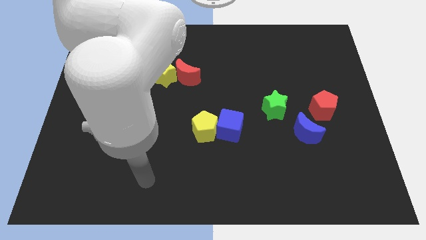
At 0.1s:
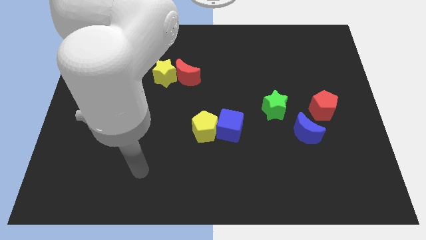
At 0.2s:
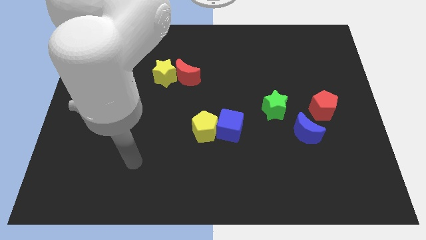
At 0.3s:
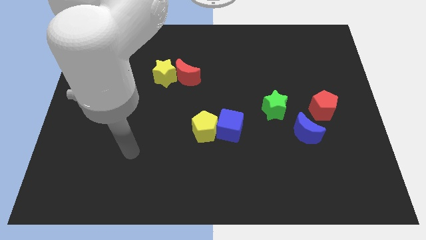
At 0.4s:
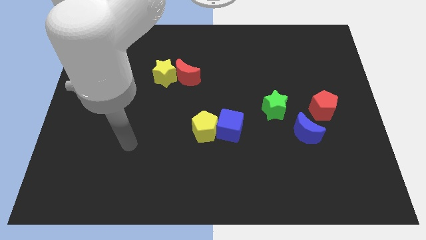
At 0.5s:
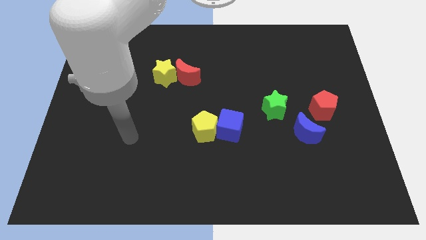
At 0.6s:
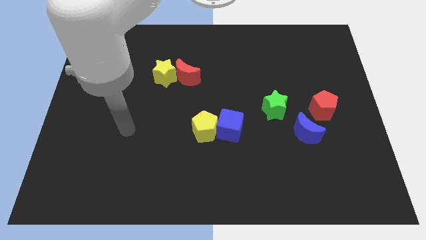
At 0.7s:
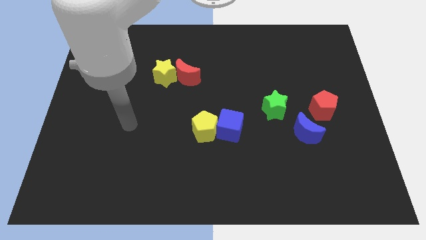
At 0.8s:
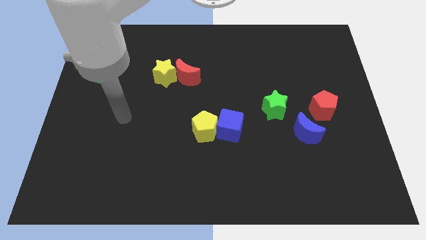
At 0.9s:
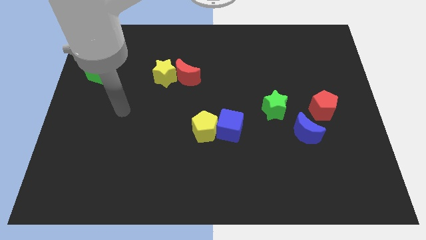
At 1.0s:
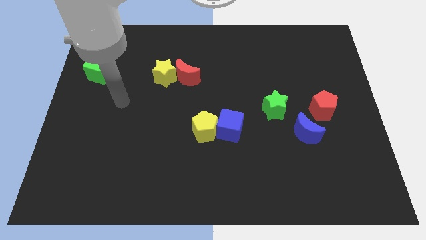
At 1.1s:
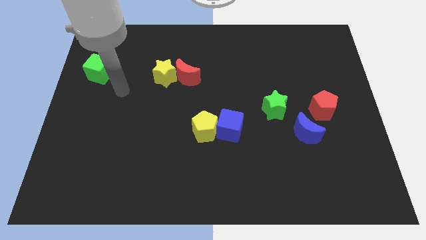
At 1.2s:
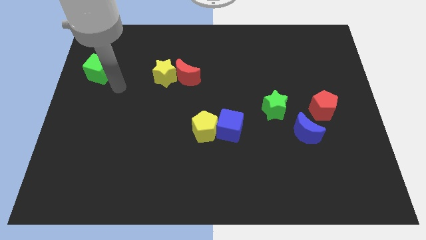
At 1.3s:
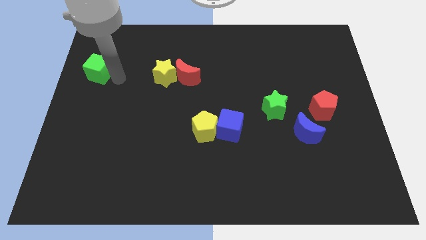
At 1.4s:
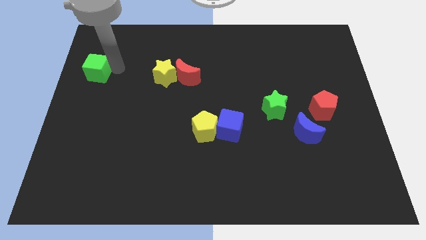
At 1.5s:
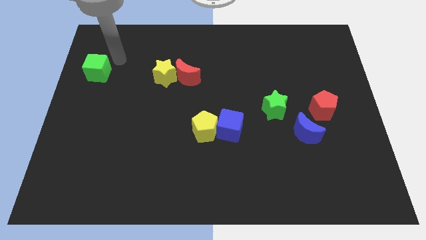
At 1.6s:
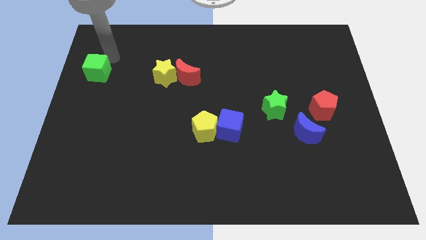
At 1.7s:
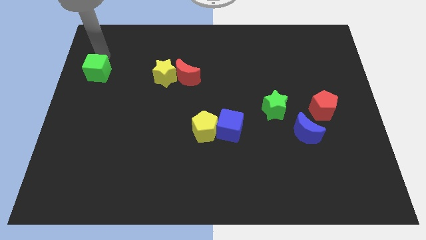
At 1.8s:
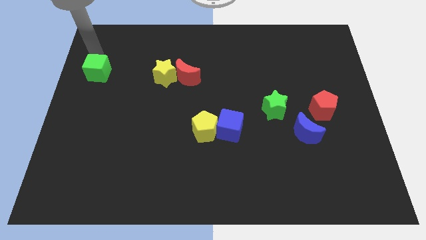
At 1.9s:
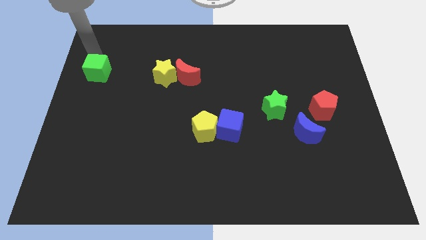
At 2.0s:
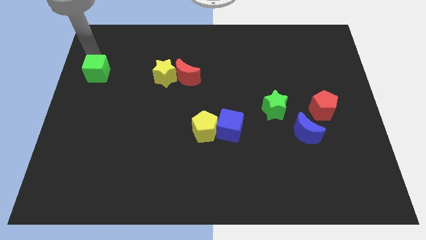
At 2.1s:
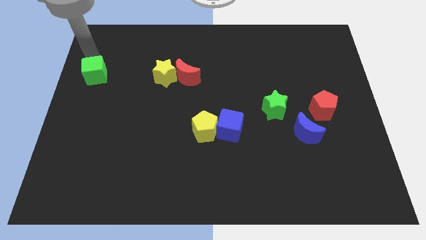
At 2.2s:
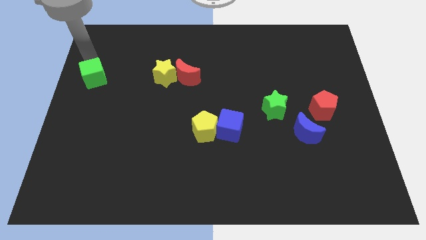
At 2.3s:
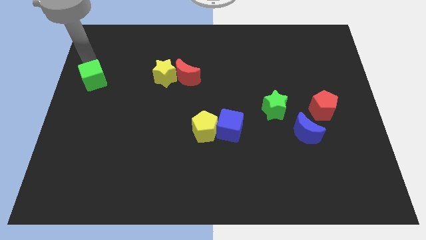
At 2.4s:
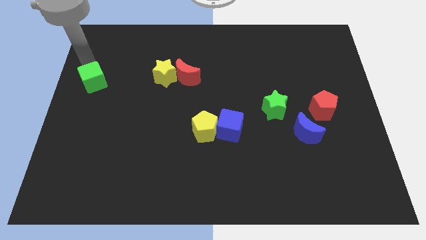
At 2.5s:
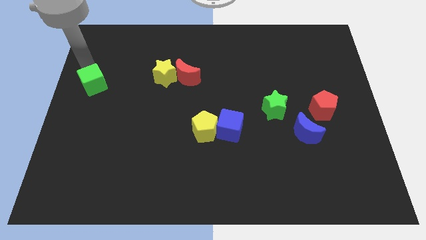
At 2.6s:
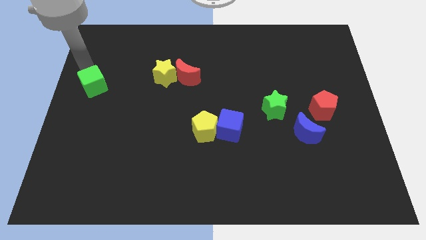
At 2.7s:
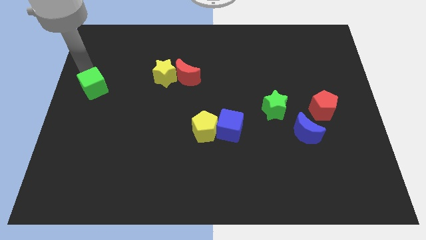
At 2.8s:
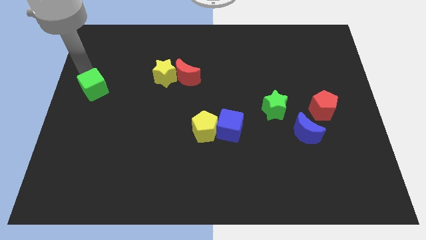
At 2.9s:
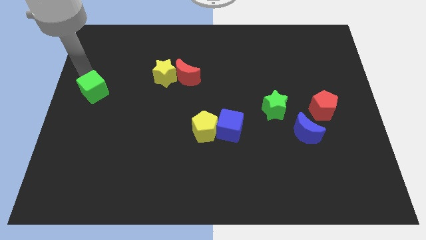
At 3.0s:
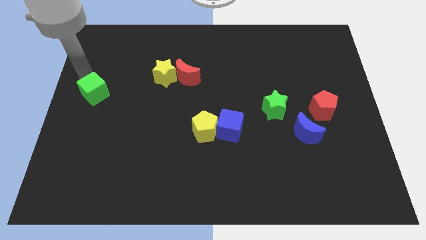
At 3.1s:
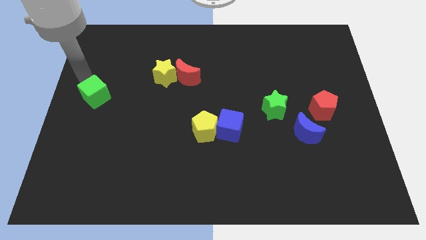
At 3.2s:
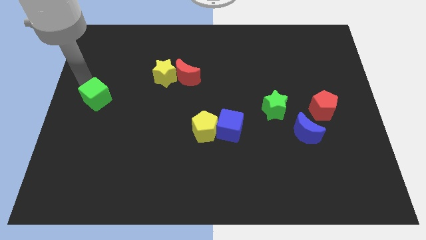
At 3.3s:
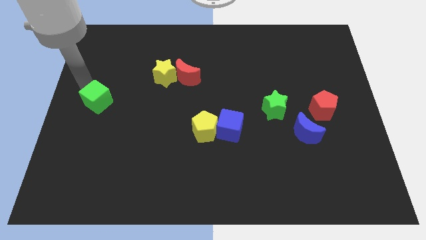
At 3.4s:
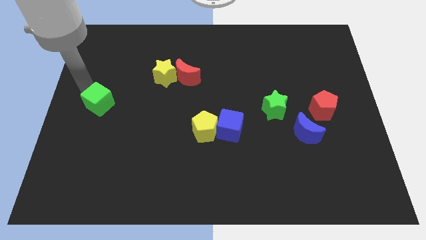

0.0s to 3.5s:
slightly move the green cube downwards and to the right

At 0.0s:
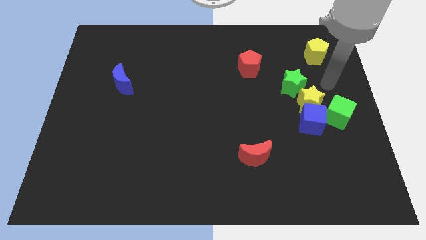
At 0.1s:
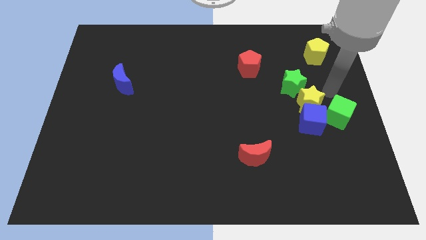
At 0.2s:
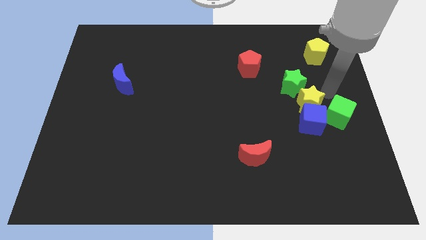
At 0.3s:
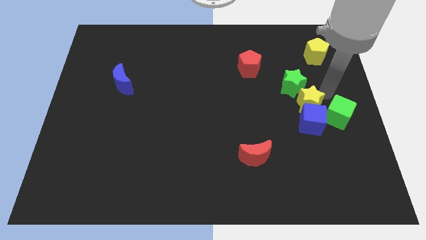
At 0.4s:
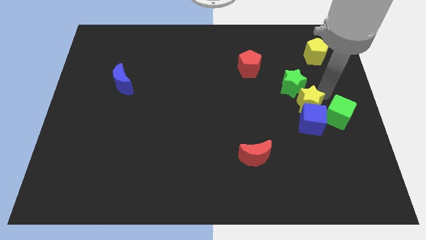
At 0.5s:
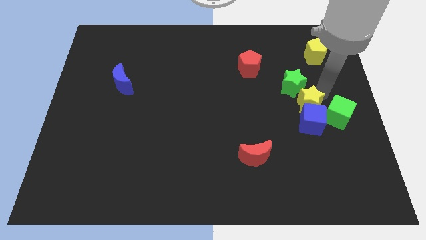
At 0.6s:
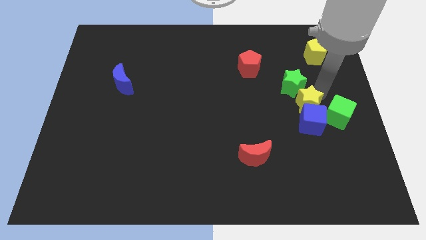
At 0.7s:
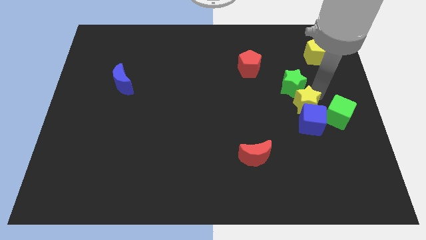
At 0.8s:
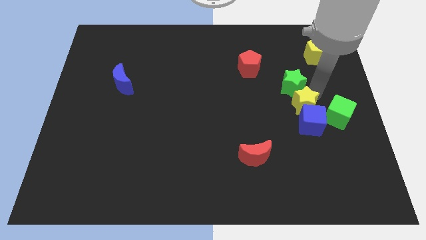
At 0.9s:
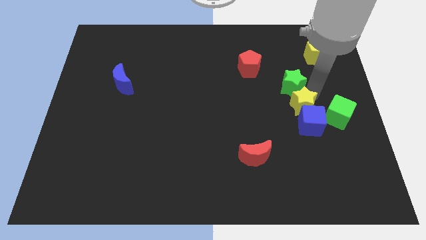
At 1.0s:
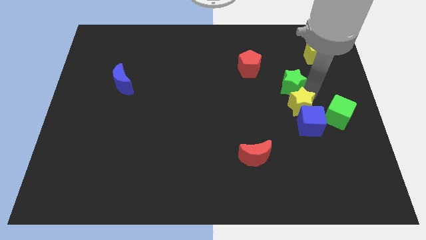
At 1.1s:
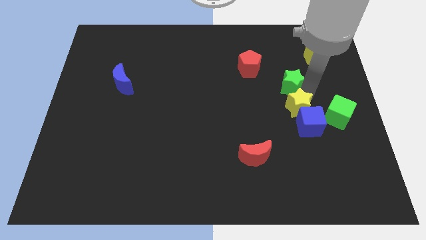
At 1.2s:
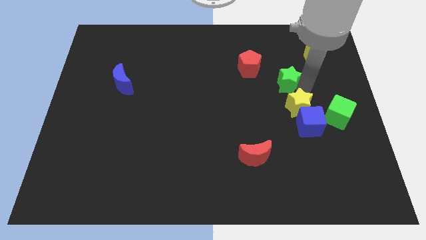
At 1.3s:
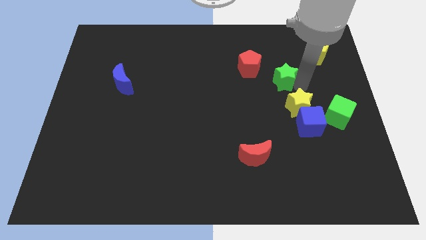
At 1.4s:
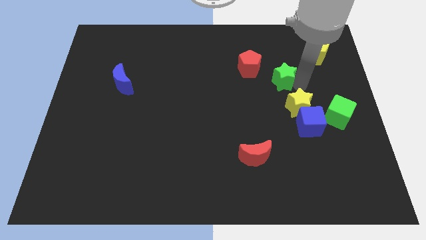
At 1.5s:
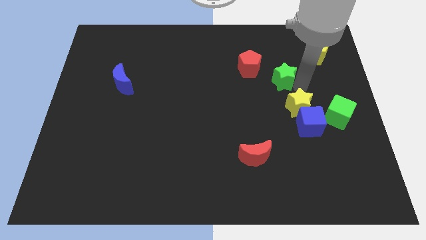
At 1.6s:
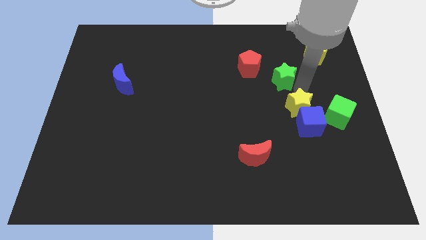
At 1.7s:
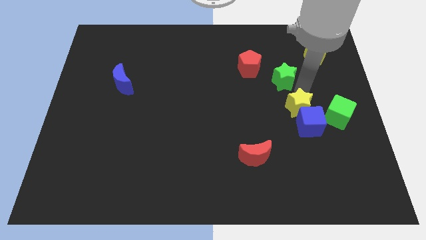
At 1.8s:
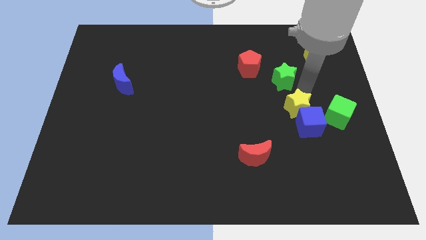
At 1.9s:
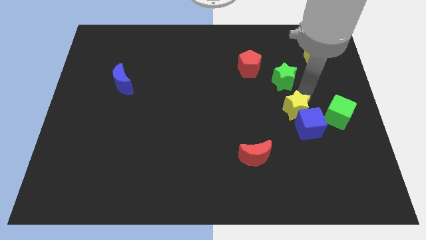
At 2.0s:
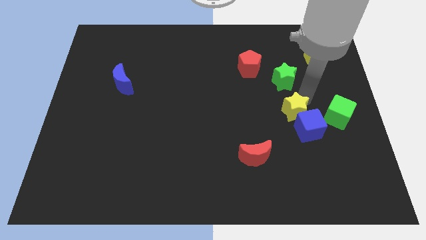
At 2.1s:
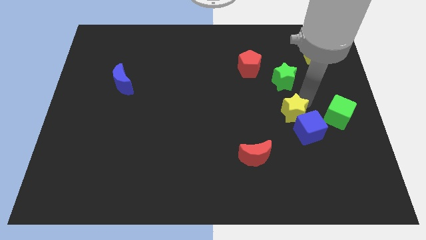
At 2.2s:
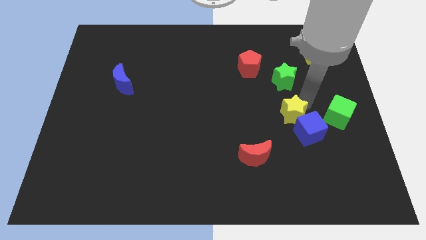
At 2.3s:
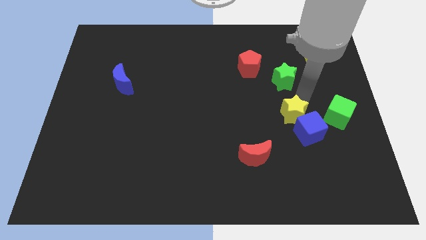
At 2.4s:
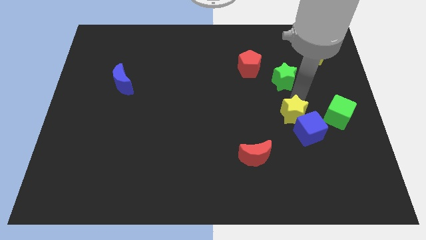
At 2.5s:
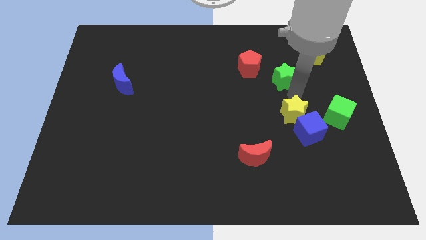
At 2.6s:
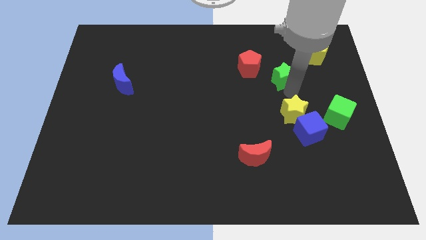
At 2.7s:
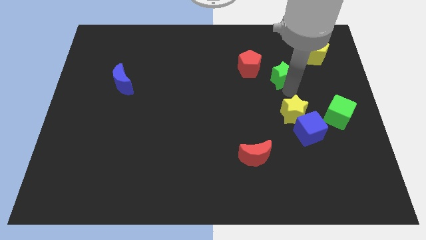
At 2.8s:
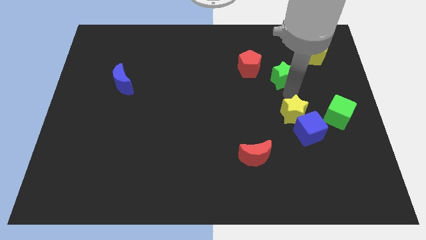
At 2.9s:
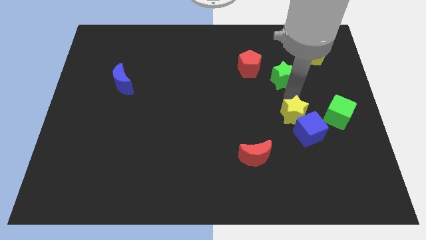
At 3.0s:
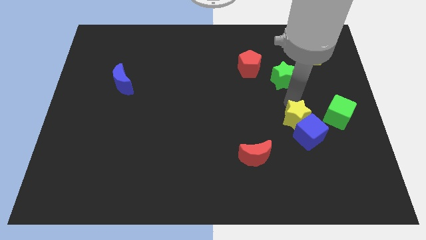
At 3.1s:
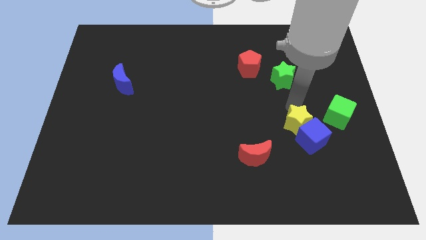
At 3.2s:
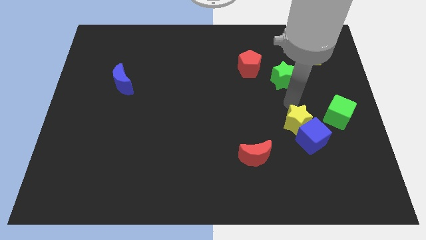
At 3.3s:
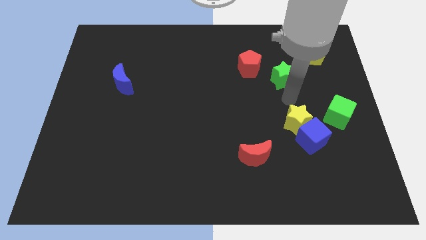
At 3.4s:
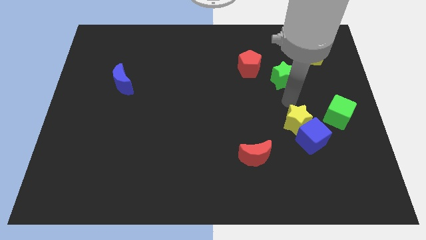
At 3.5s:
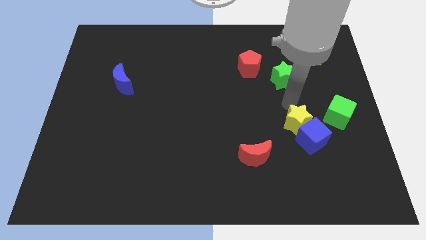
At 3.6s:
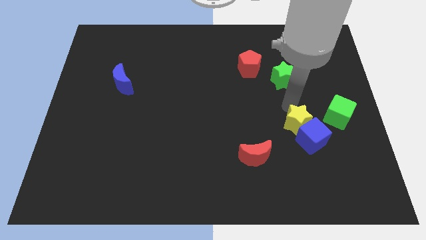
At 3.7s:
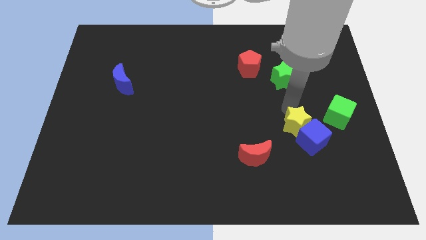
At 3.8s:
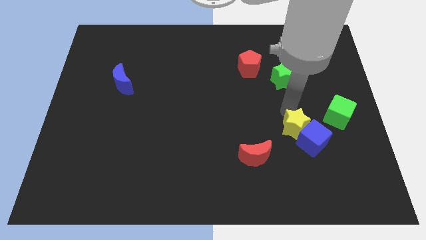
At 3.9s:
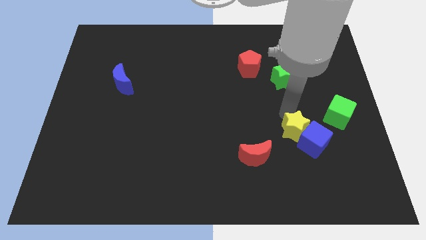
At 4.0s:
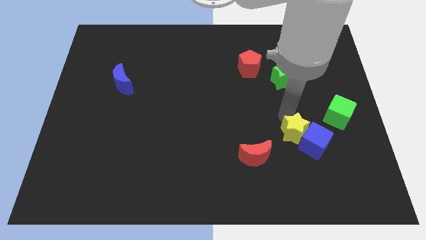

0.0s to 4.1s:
move the yellow star a little bit down

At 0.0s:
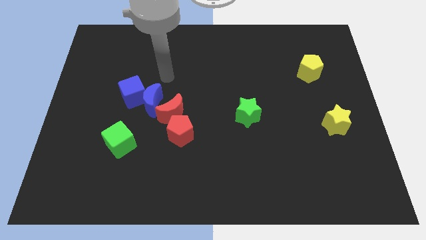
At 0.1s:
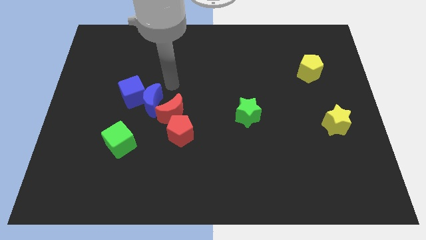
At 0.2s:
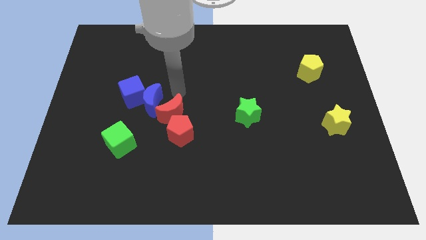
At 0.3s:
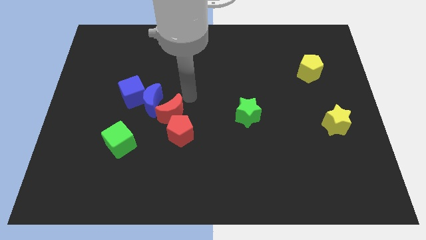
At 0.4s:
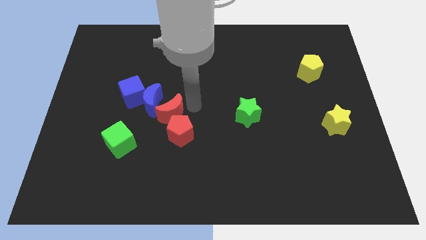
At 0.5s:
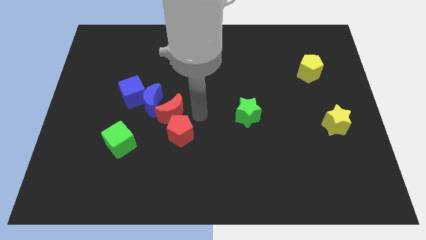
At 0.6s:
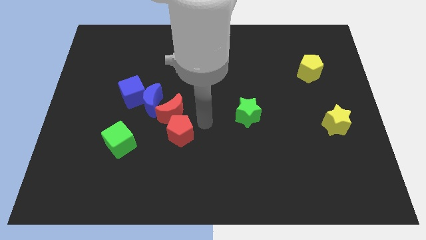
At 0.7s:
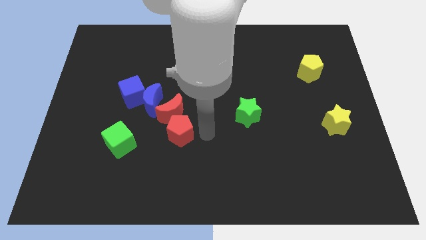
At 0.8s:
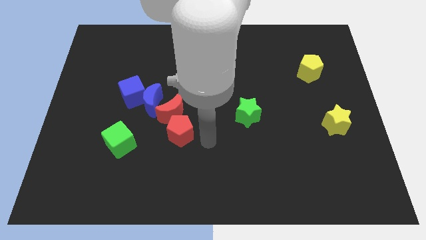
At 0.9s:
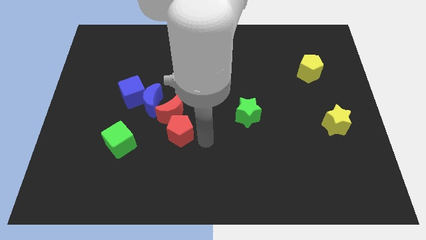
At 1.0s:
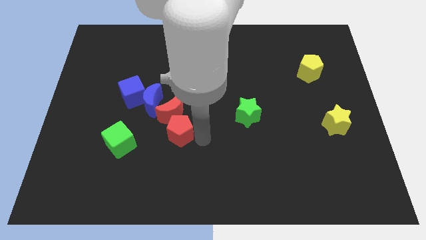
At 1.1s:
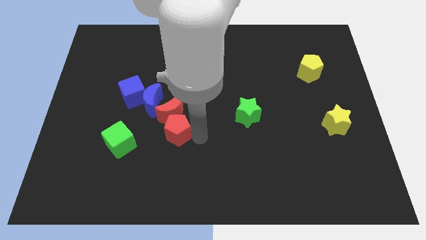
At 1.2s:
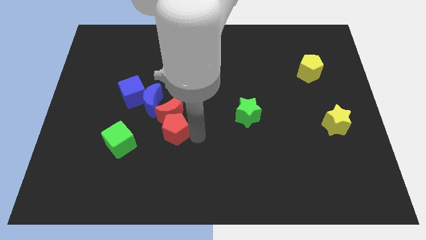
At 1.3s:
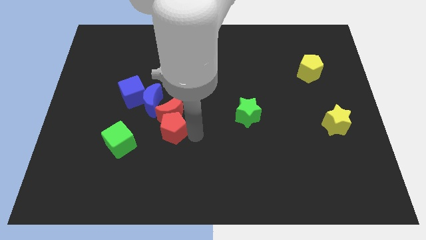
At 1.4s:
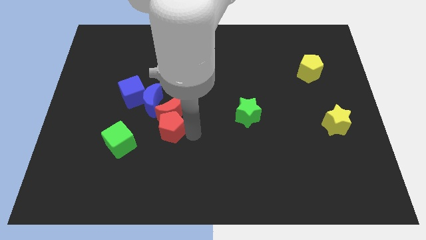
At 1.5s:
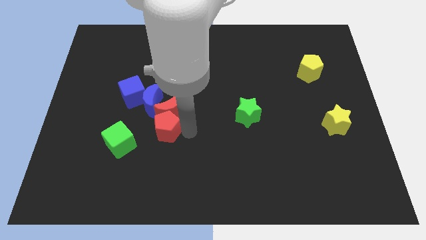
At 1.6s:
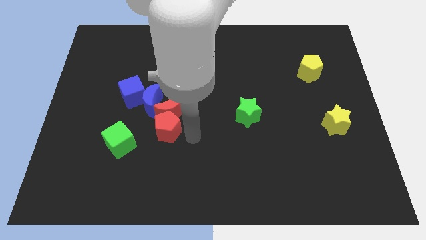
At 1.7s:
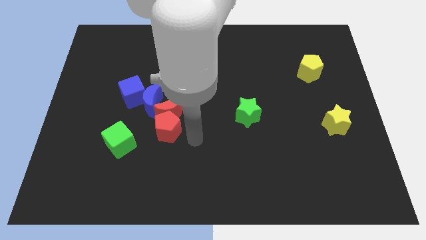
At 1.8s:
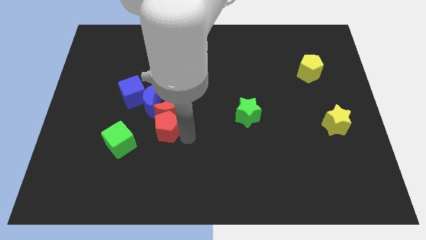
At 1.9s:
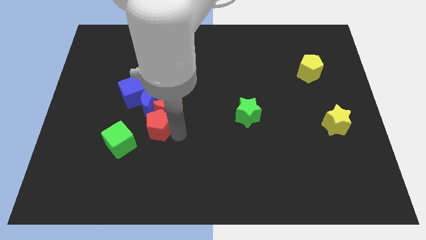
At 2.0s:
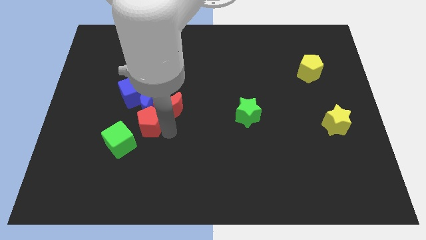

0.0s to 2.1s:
slightly slide the red pentagon left
